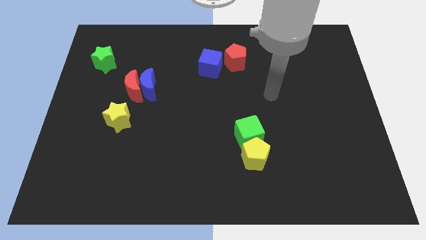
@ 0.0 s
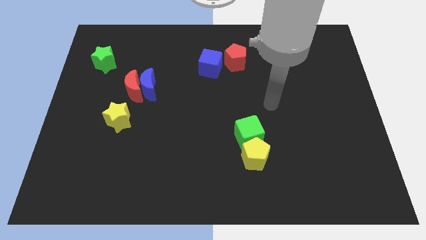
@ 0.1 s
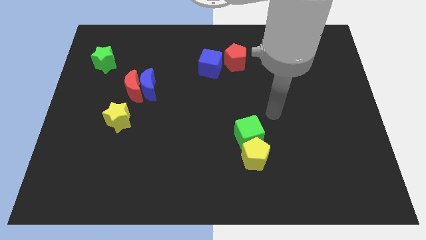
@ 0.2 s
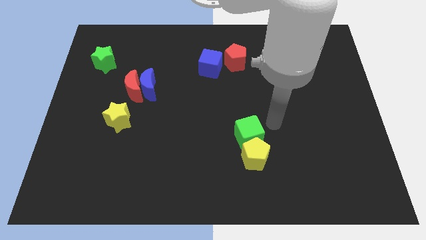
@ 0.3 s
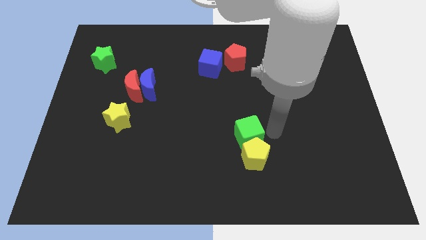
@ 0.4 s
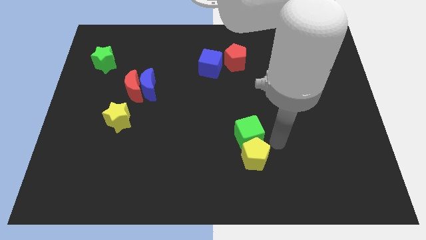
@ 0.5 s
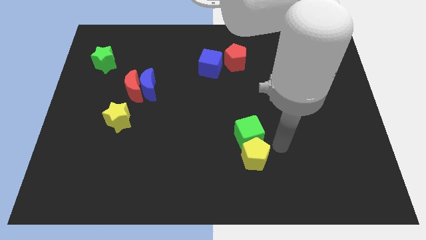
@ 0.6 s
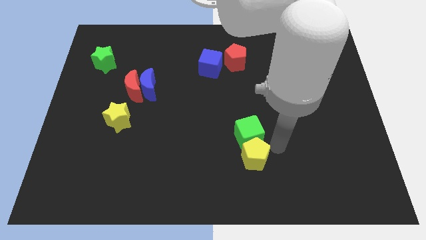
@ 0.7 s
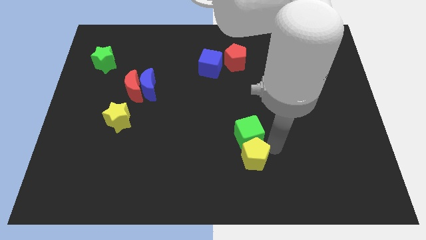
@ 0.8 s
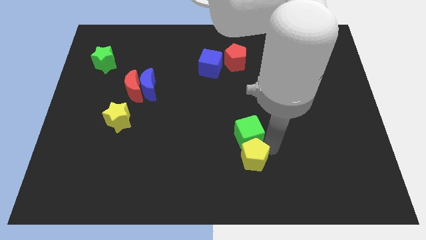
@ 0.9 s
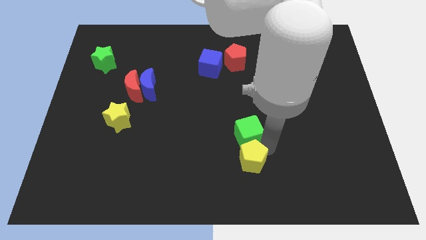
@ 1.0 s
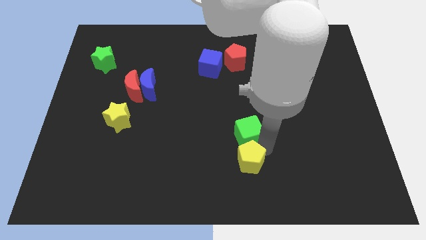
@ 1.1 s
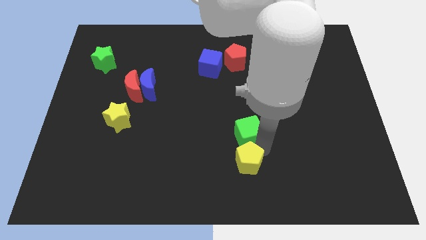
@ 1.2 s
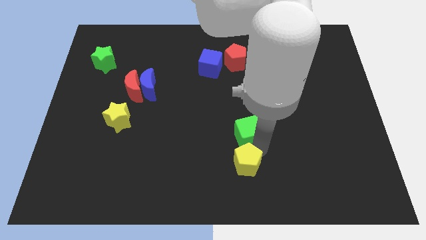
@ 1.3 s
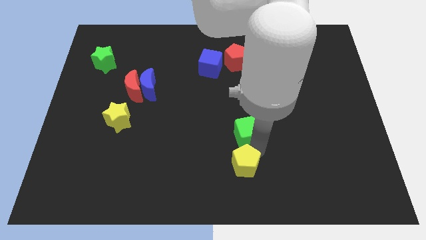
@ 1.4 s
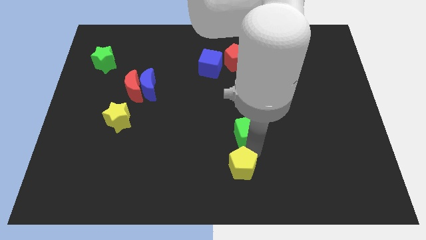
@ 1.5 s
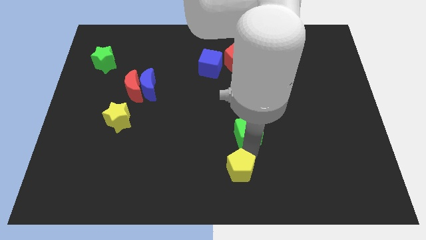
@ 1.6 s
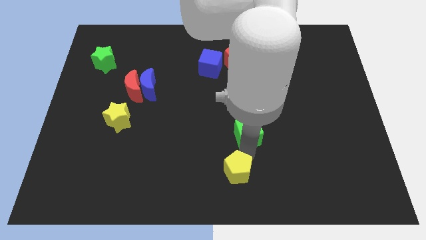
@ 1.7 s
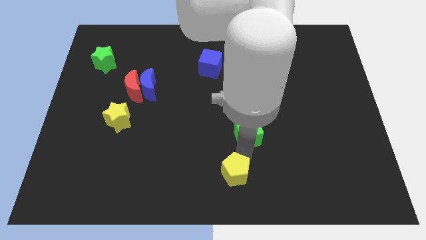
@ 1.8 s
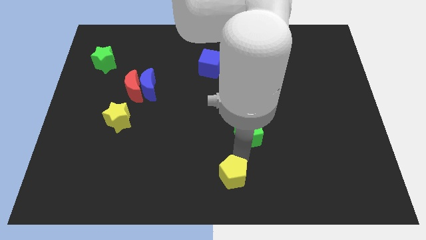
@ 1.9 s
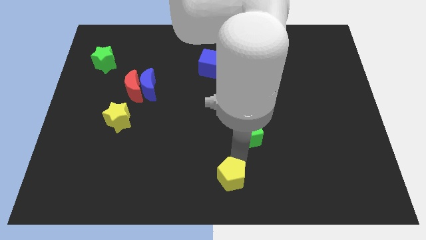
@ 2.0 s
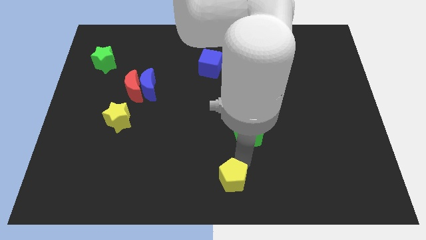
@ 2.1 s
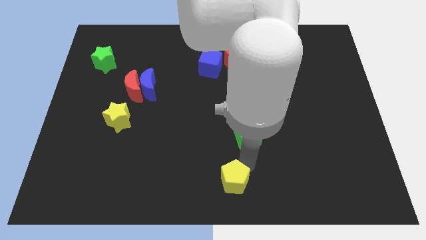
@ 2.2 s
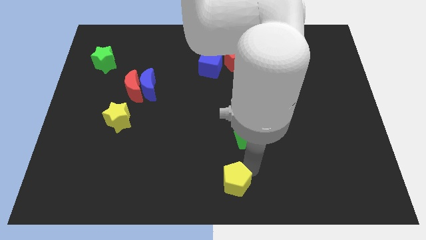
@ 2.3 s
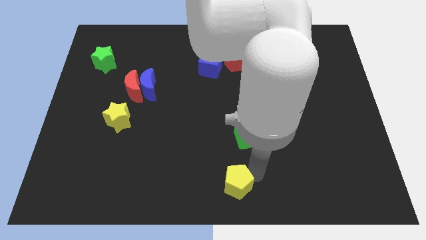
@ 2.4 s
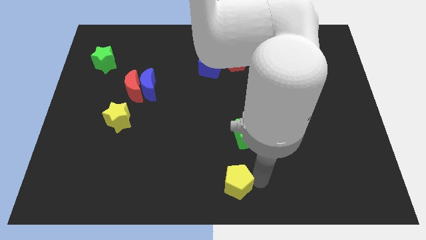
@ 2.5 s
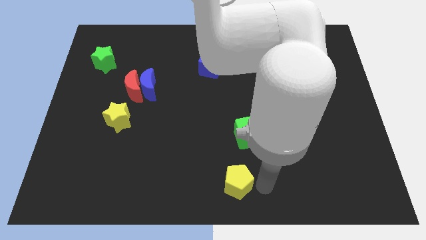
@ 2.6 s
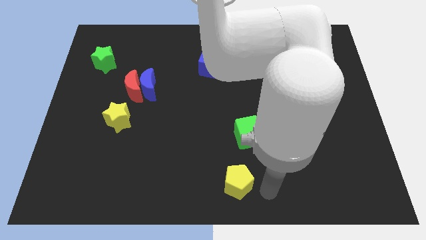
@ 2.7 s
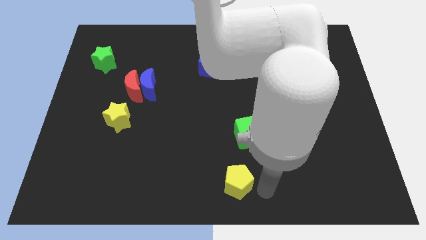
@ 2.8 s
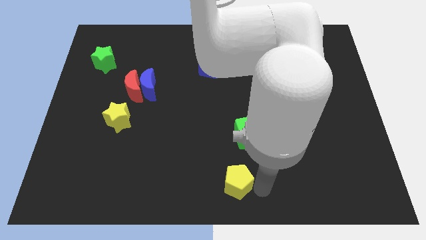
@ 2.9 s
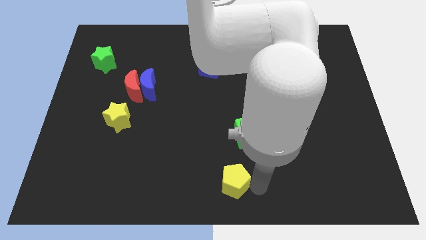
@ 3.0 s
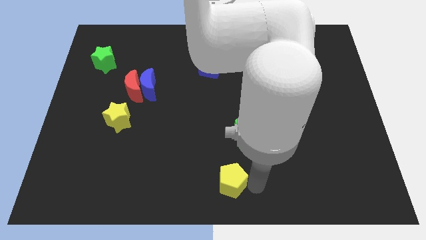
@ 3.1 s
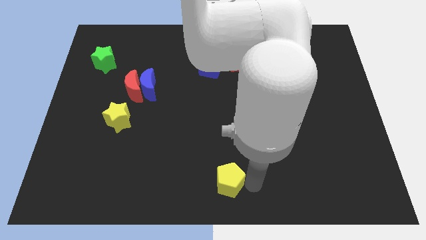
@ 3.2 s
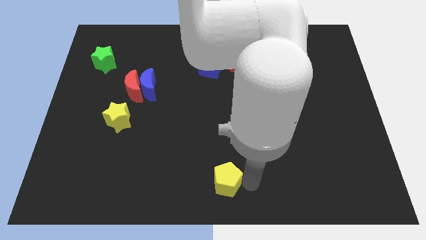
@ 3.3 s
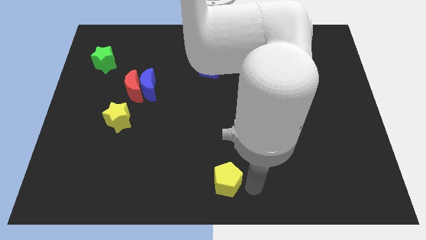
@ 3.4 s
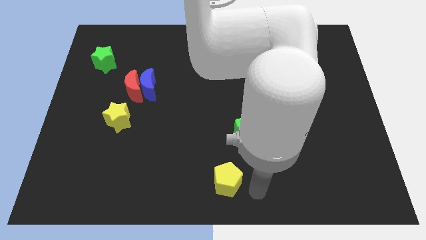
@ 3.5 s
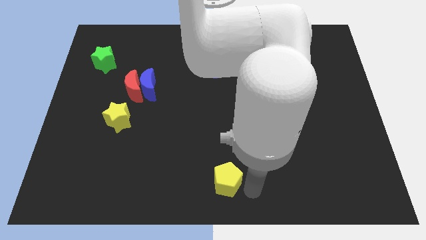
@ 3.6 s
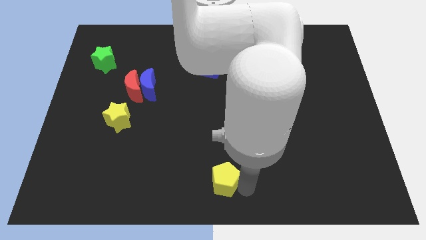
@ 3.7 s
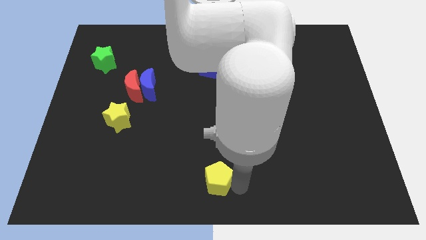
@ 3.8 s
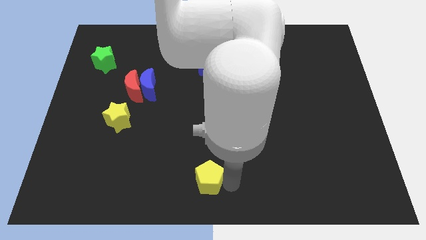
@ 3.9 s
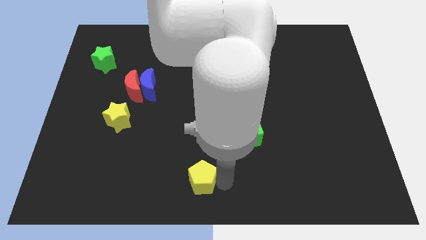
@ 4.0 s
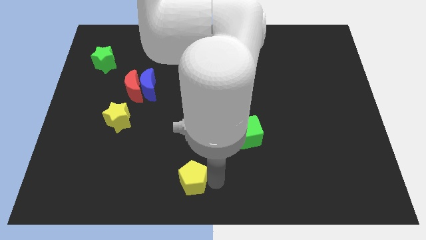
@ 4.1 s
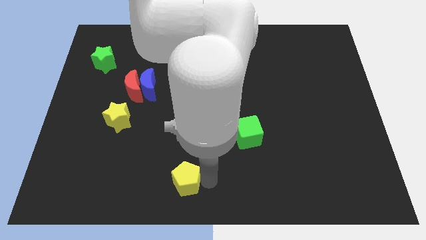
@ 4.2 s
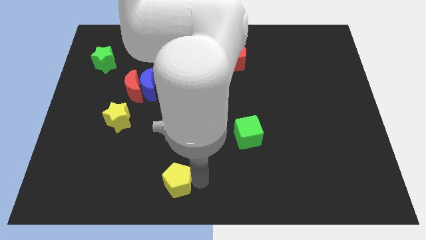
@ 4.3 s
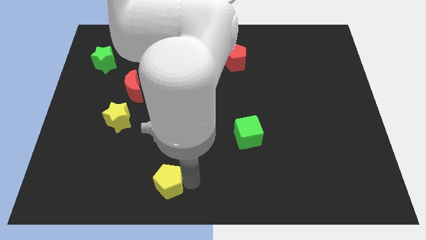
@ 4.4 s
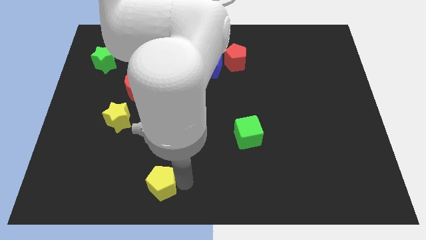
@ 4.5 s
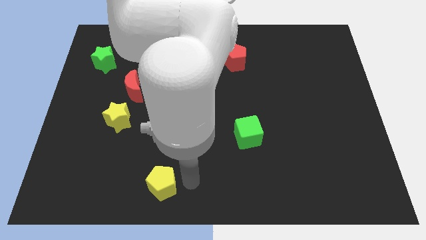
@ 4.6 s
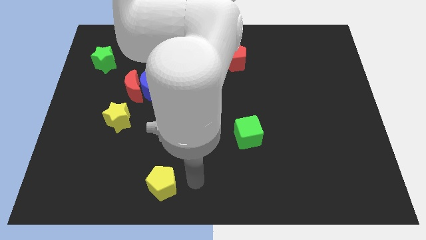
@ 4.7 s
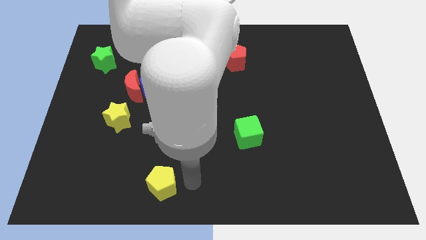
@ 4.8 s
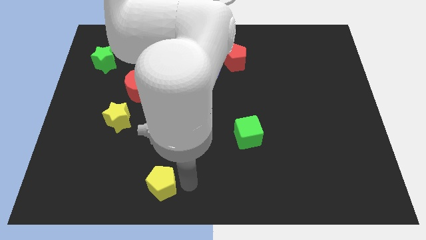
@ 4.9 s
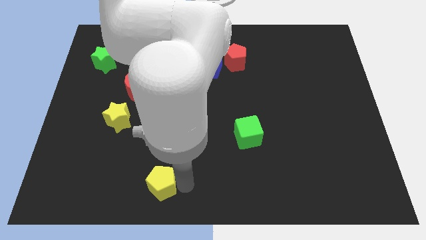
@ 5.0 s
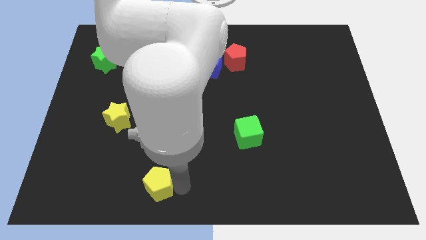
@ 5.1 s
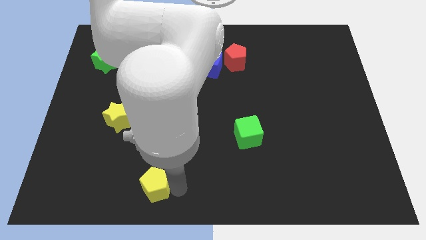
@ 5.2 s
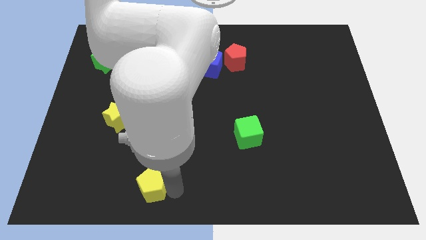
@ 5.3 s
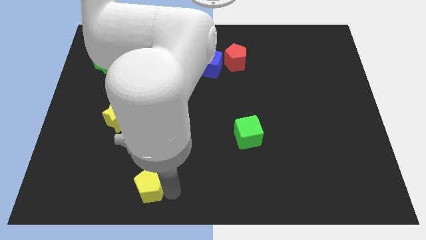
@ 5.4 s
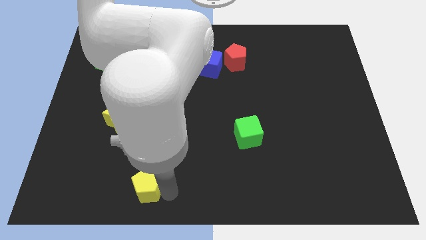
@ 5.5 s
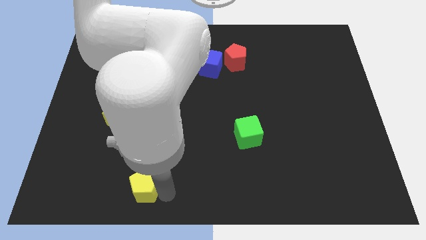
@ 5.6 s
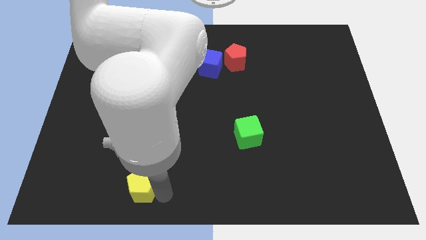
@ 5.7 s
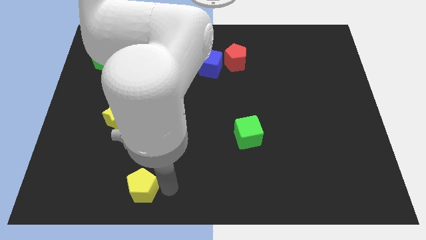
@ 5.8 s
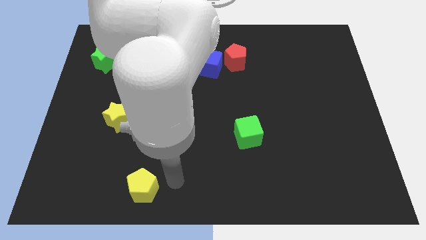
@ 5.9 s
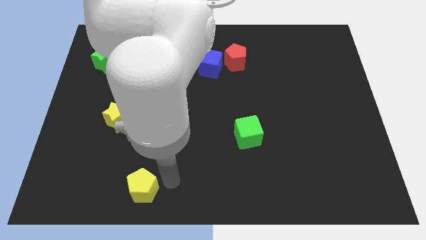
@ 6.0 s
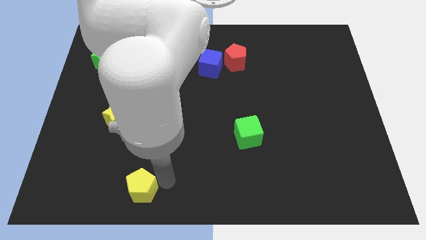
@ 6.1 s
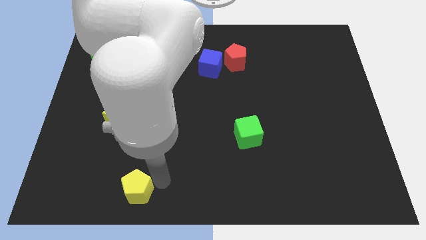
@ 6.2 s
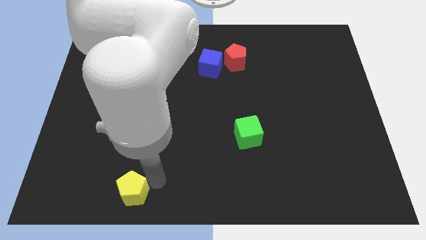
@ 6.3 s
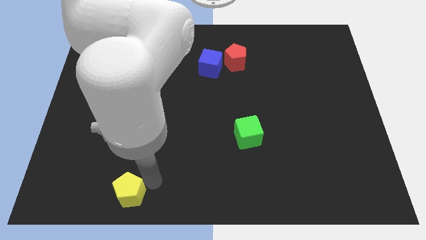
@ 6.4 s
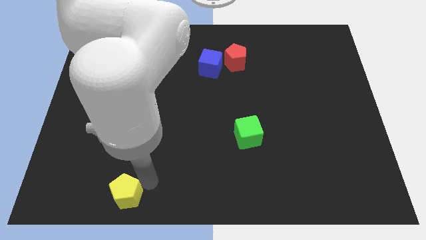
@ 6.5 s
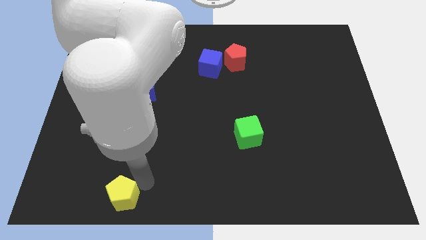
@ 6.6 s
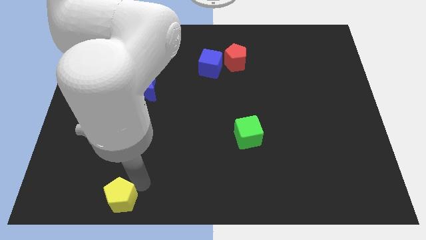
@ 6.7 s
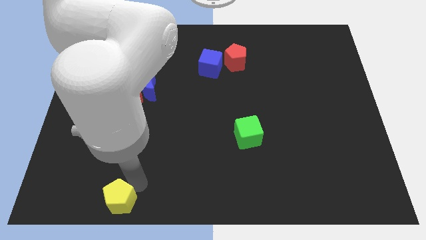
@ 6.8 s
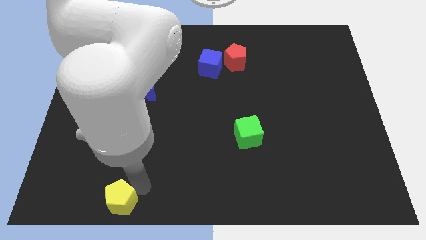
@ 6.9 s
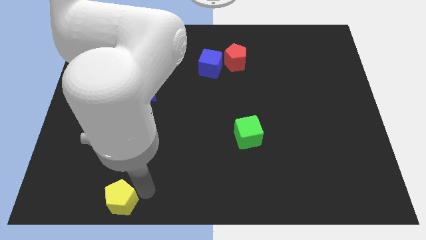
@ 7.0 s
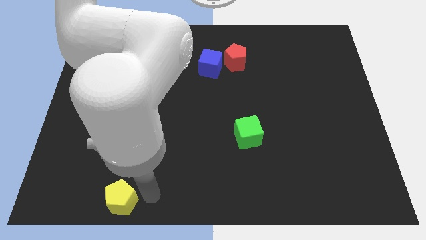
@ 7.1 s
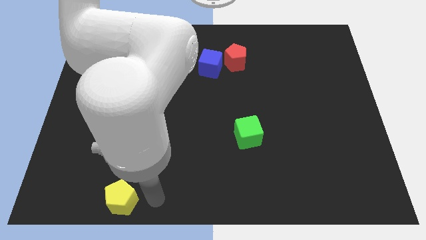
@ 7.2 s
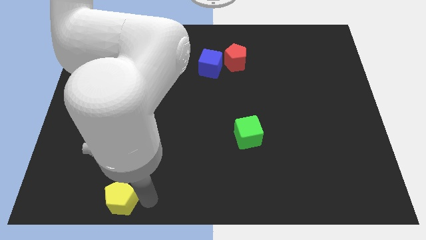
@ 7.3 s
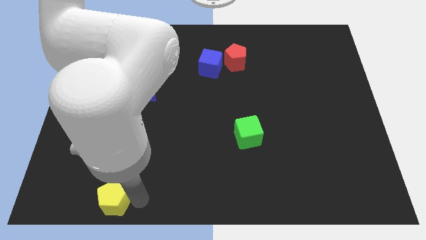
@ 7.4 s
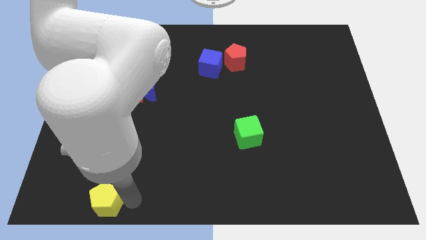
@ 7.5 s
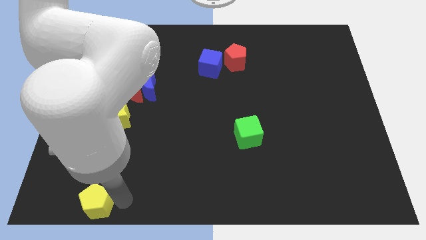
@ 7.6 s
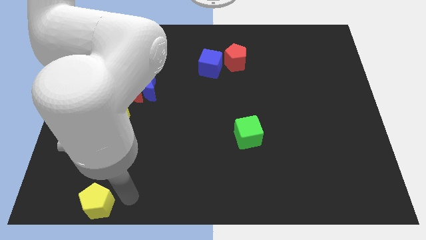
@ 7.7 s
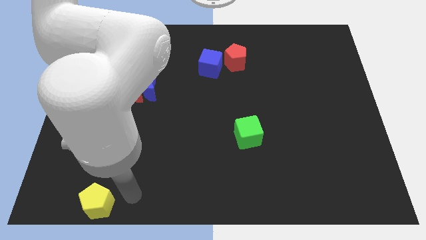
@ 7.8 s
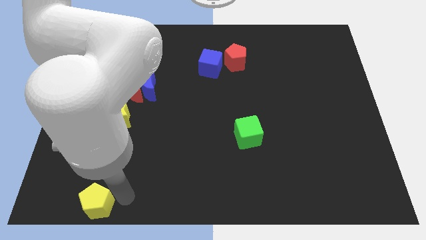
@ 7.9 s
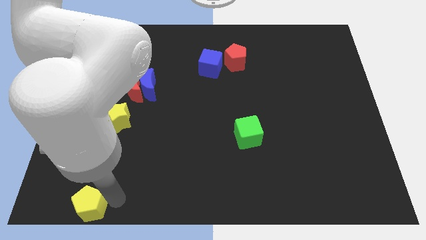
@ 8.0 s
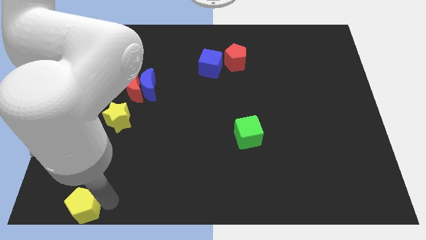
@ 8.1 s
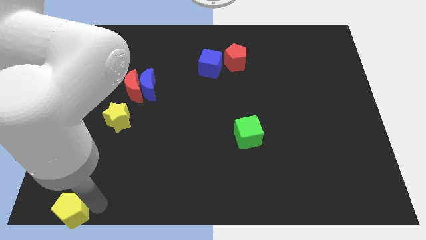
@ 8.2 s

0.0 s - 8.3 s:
put the yellow pentagon to the bottom left
